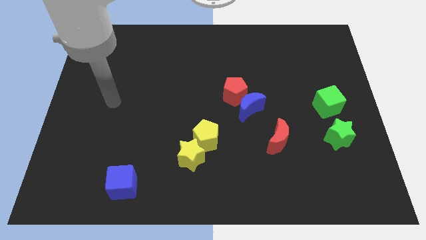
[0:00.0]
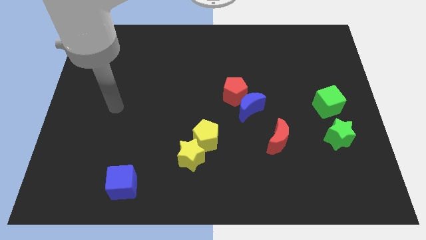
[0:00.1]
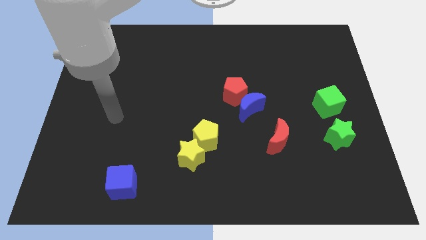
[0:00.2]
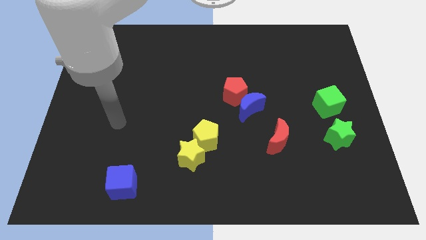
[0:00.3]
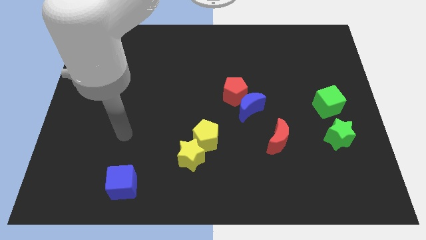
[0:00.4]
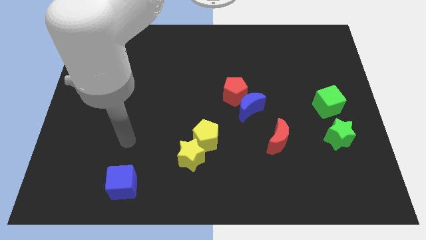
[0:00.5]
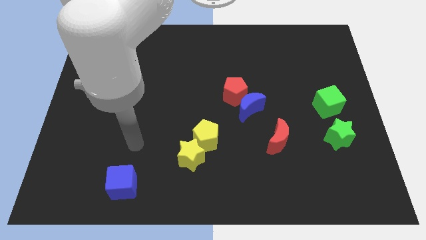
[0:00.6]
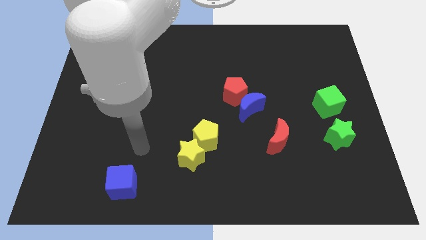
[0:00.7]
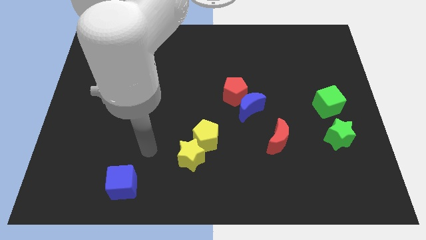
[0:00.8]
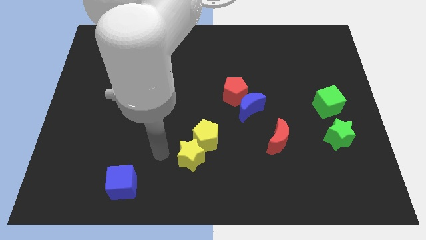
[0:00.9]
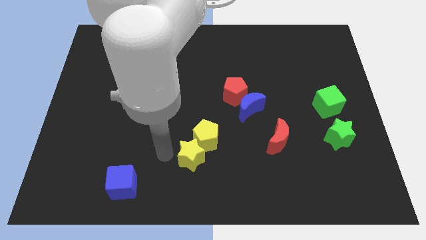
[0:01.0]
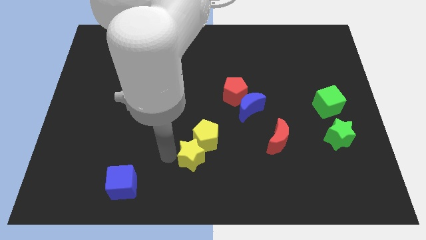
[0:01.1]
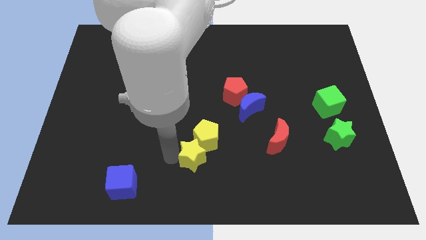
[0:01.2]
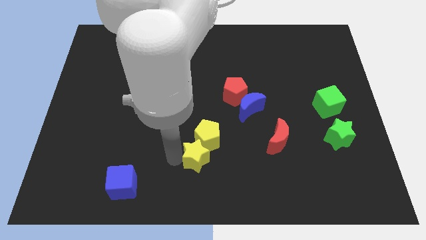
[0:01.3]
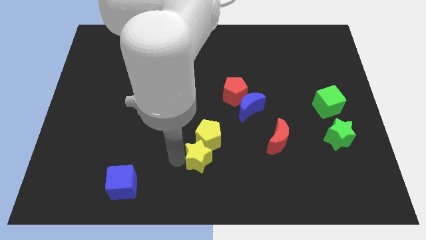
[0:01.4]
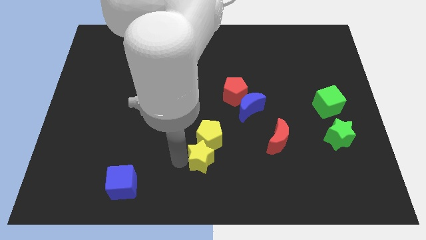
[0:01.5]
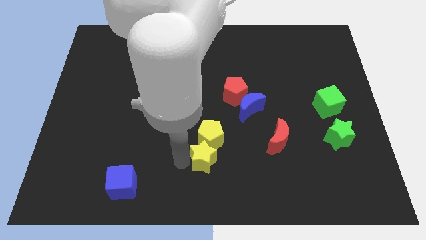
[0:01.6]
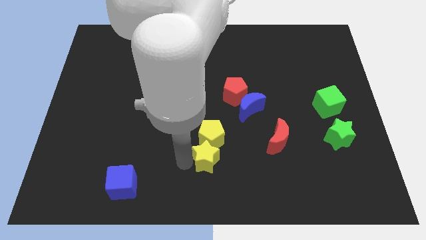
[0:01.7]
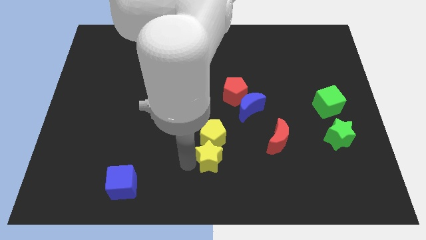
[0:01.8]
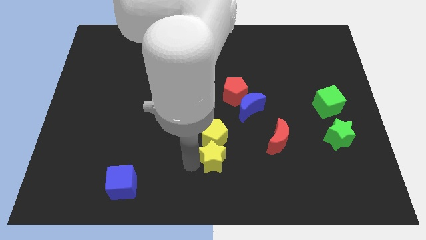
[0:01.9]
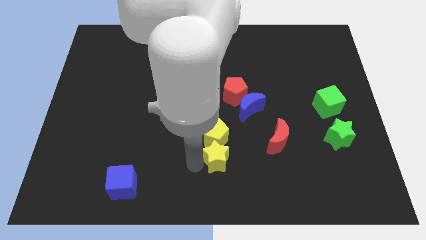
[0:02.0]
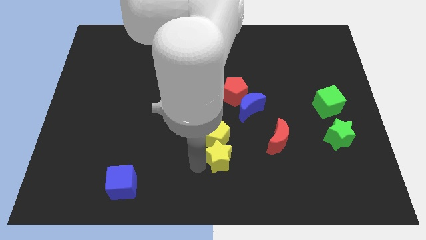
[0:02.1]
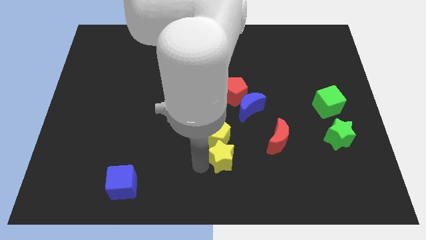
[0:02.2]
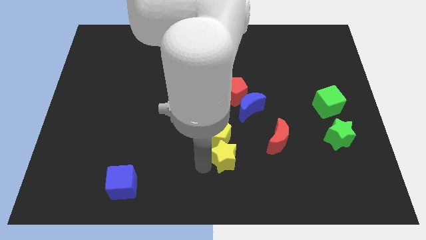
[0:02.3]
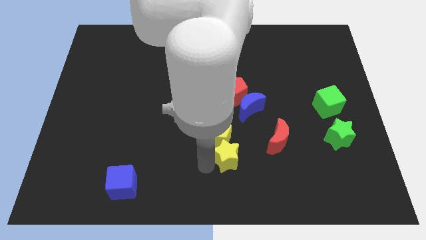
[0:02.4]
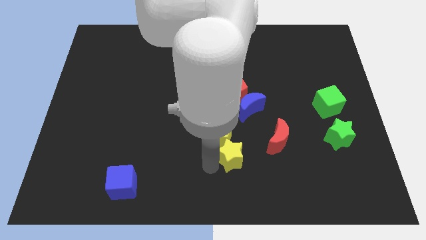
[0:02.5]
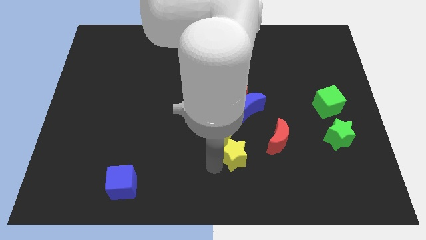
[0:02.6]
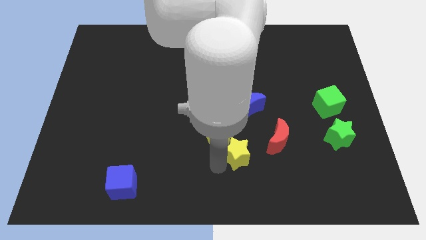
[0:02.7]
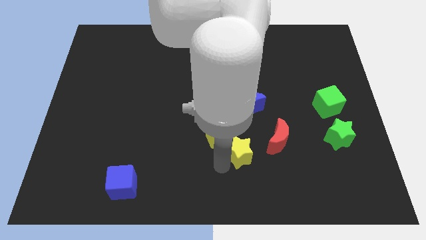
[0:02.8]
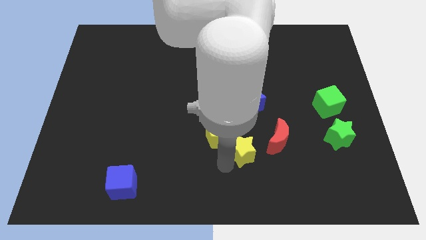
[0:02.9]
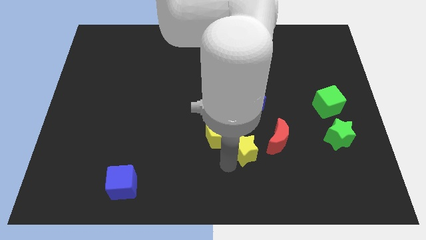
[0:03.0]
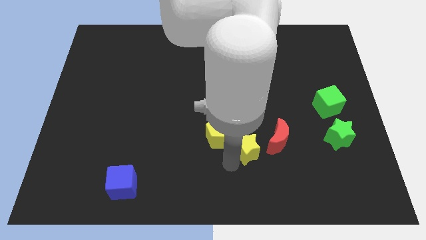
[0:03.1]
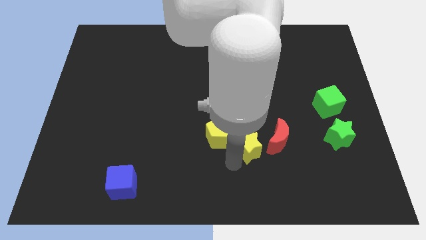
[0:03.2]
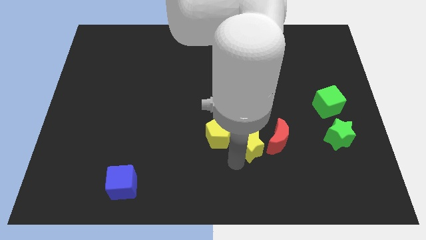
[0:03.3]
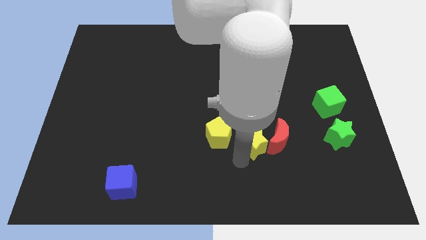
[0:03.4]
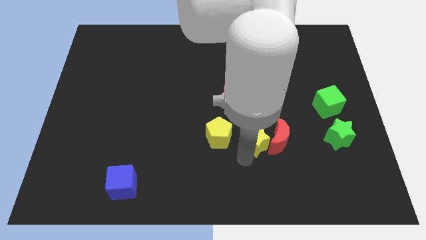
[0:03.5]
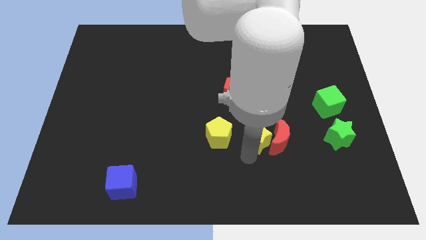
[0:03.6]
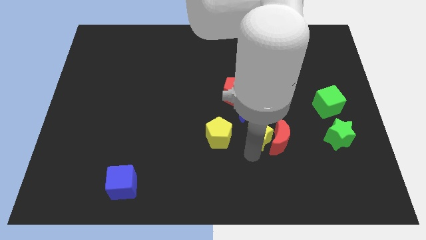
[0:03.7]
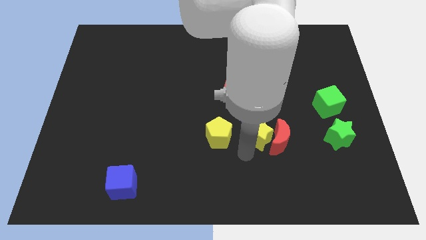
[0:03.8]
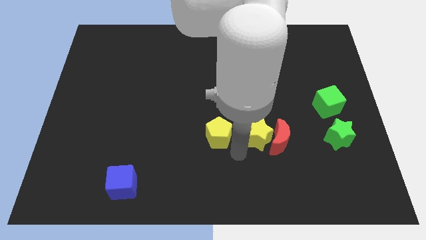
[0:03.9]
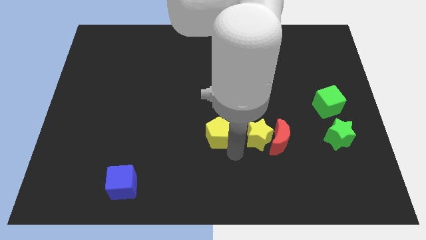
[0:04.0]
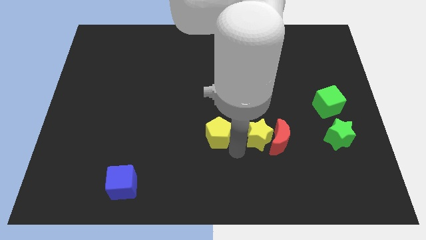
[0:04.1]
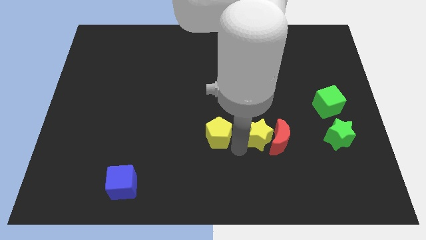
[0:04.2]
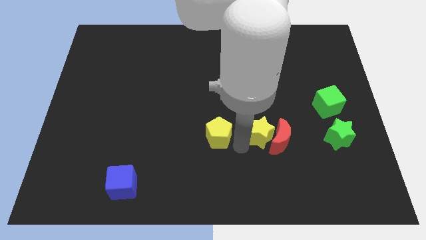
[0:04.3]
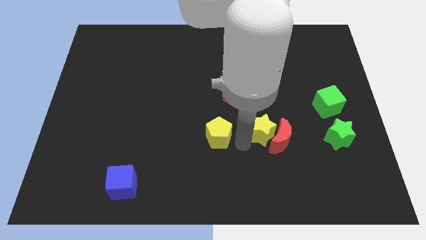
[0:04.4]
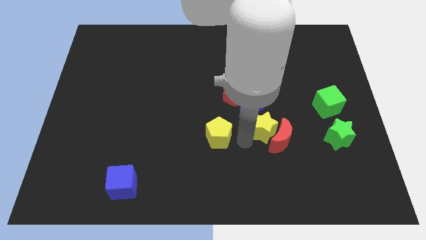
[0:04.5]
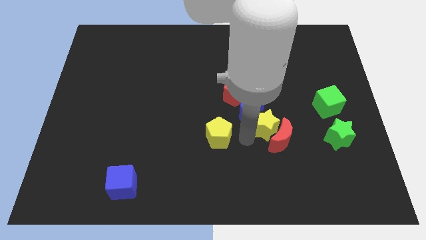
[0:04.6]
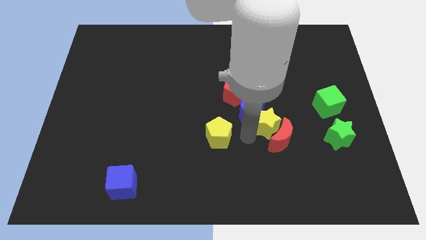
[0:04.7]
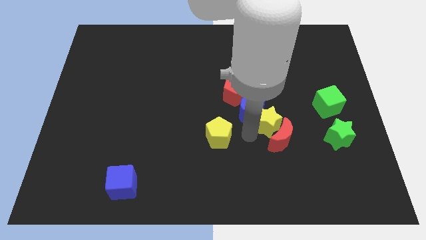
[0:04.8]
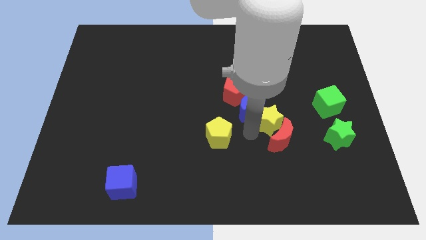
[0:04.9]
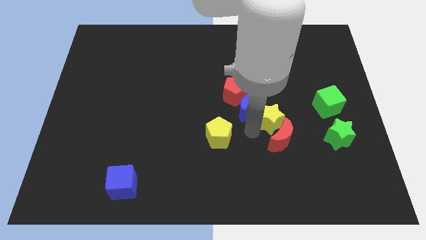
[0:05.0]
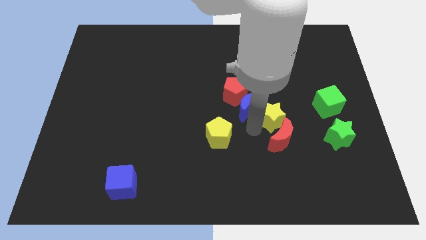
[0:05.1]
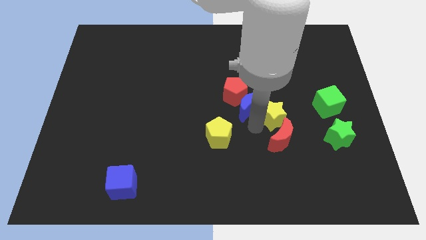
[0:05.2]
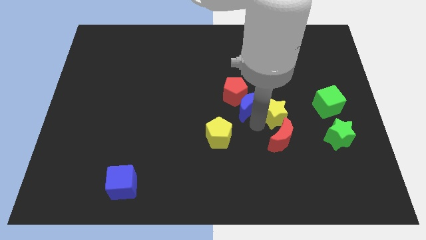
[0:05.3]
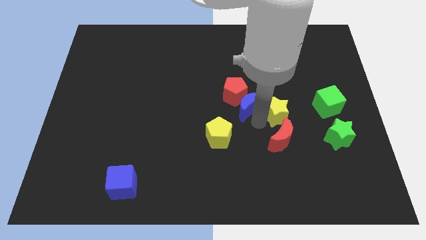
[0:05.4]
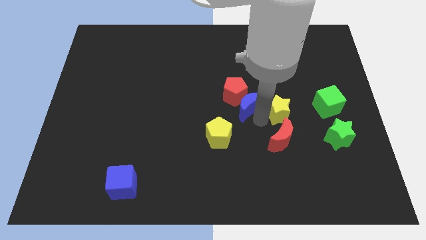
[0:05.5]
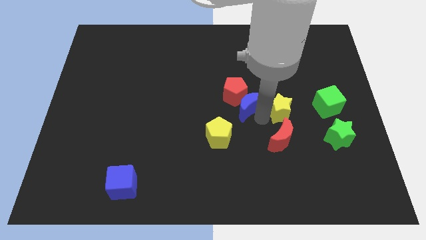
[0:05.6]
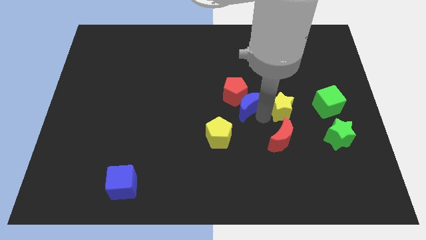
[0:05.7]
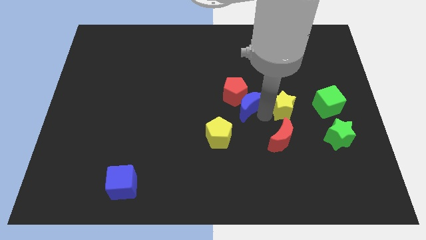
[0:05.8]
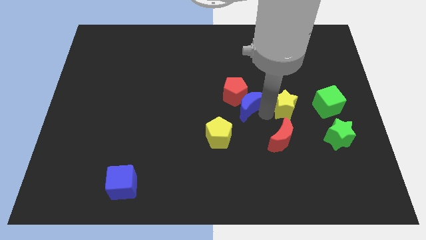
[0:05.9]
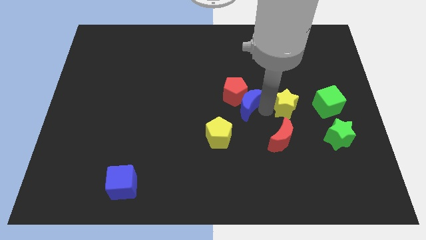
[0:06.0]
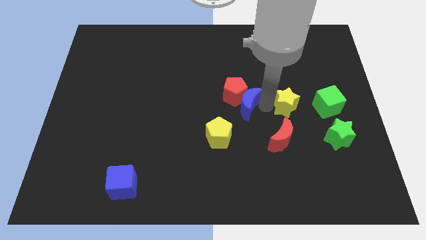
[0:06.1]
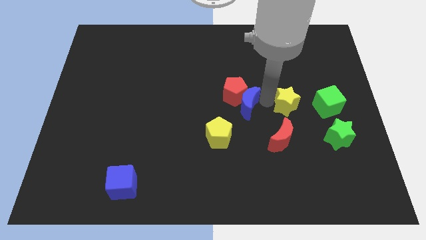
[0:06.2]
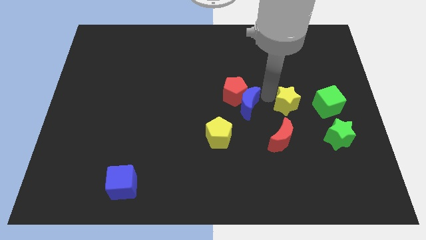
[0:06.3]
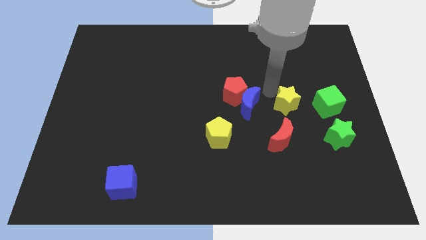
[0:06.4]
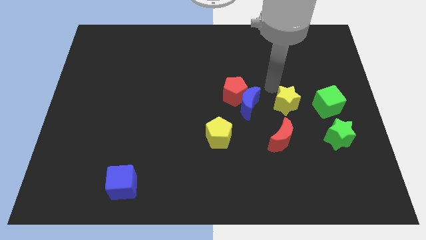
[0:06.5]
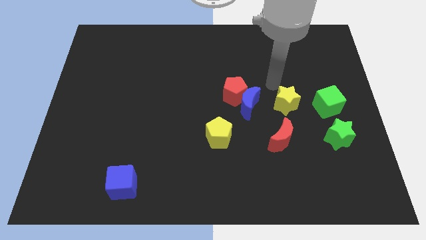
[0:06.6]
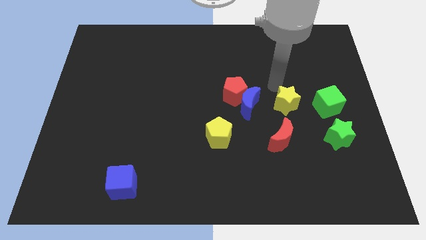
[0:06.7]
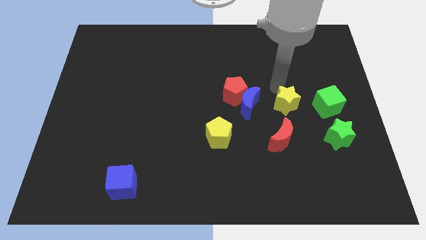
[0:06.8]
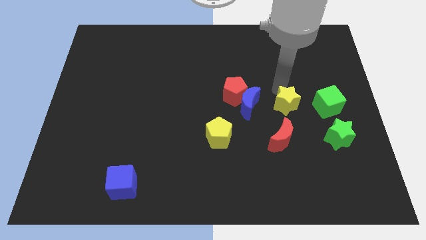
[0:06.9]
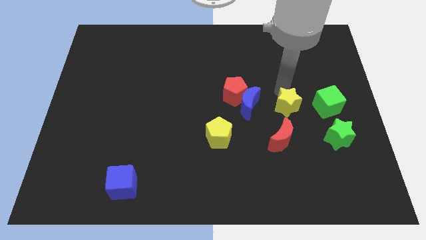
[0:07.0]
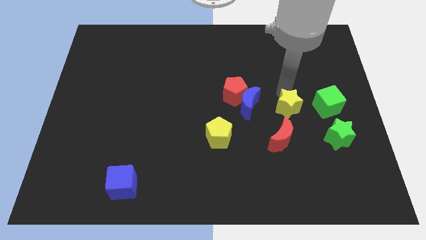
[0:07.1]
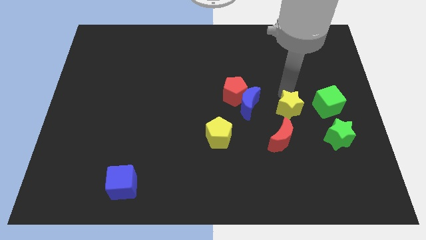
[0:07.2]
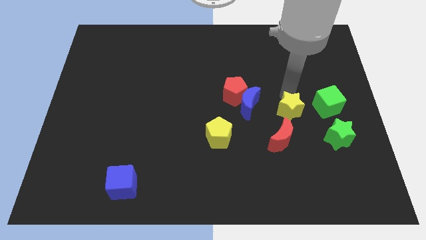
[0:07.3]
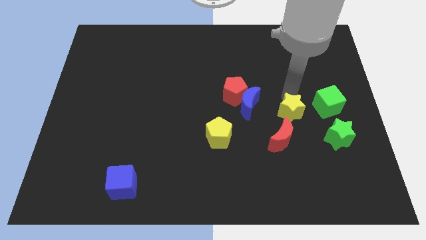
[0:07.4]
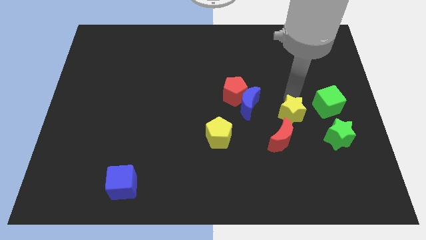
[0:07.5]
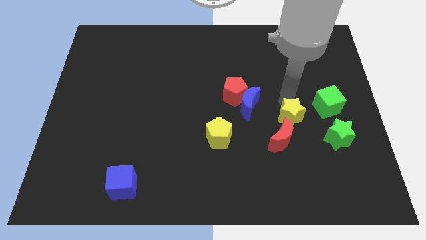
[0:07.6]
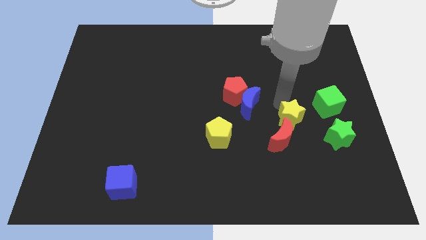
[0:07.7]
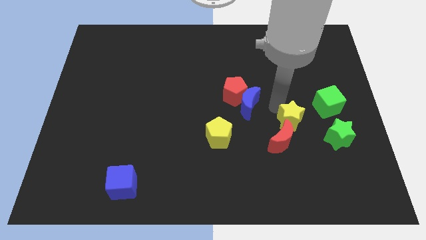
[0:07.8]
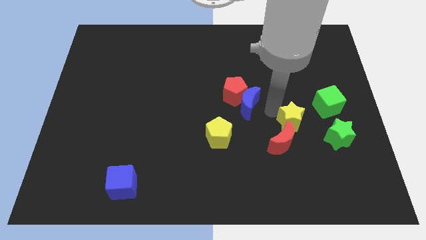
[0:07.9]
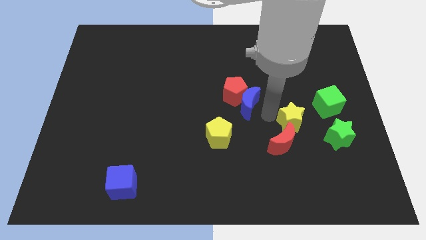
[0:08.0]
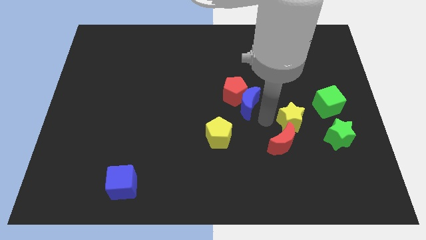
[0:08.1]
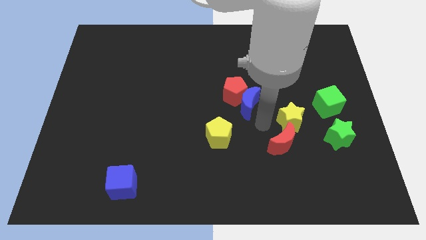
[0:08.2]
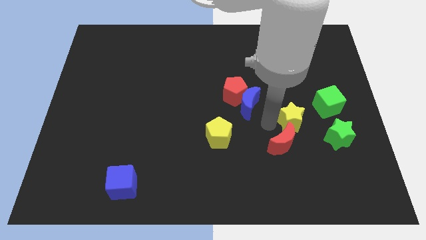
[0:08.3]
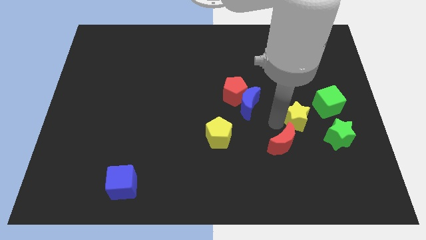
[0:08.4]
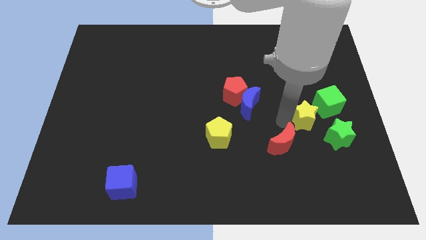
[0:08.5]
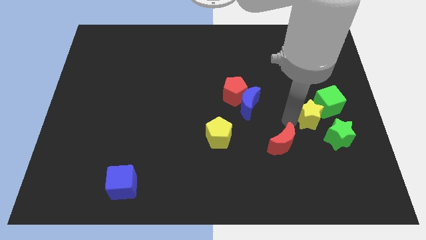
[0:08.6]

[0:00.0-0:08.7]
push the yellow star close to the green cube
